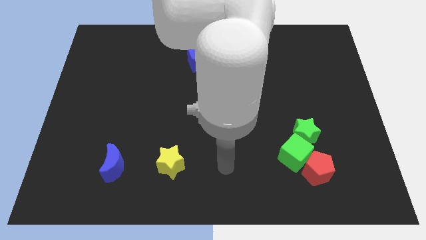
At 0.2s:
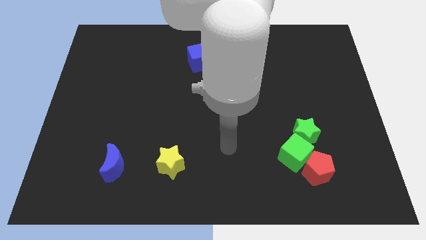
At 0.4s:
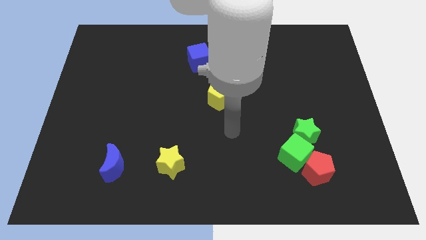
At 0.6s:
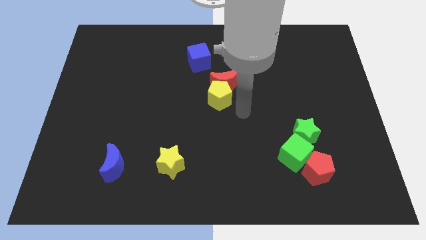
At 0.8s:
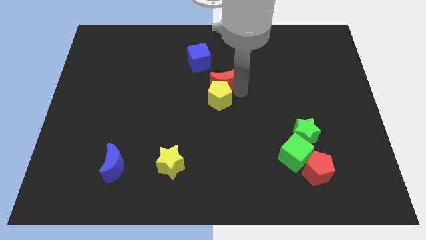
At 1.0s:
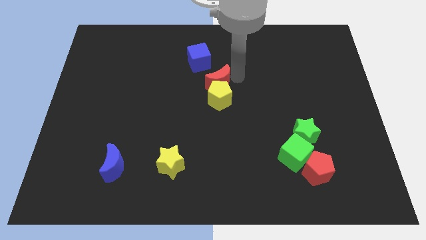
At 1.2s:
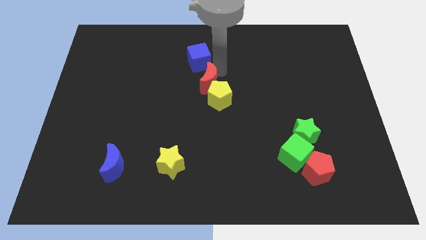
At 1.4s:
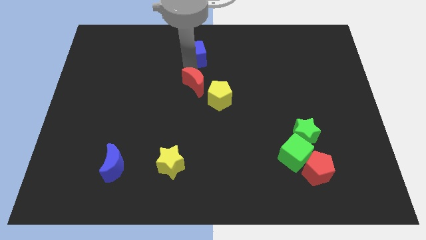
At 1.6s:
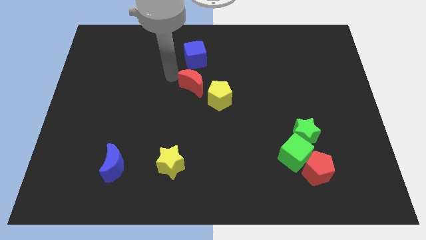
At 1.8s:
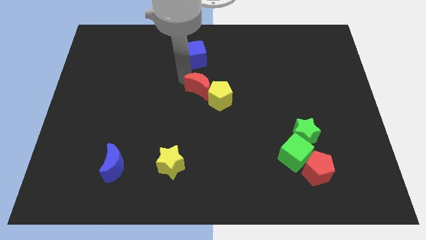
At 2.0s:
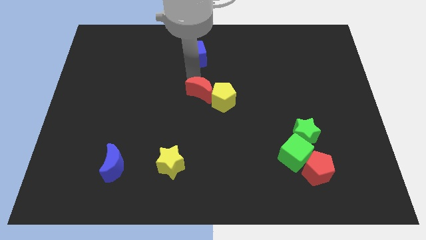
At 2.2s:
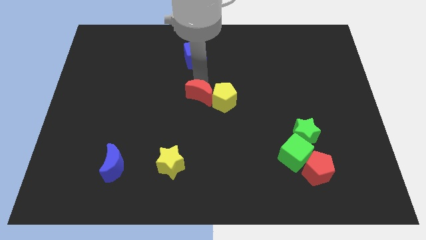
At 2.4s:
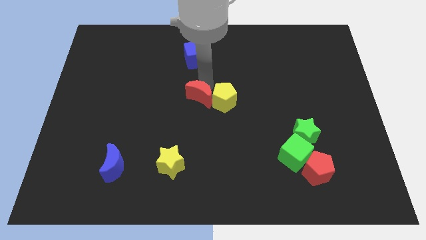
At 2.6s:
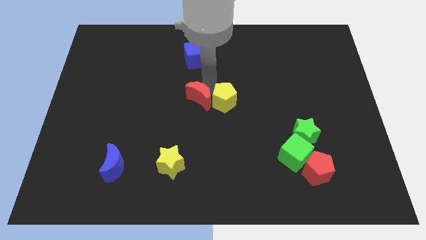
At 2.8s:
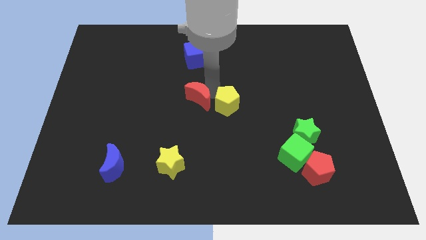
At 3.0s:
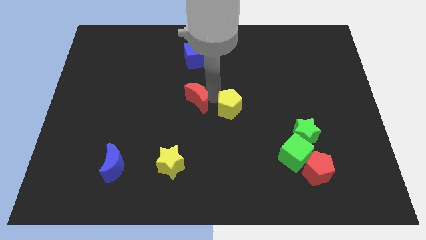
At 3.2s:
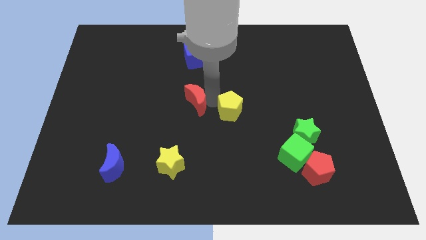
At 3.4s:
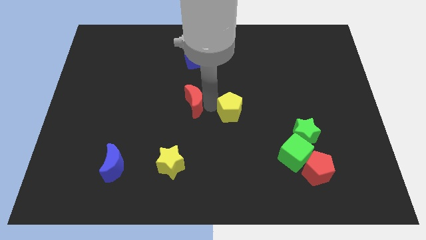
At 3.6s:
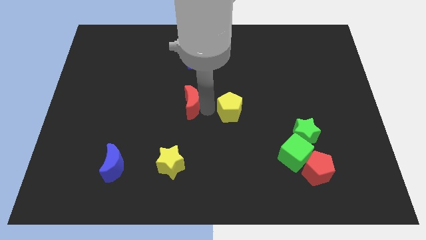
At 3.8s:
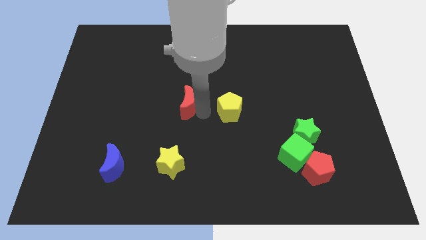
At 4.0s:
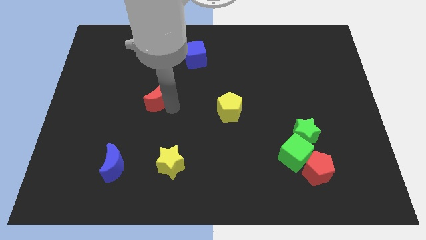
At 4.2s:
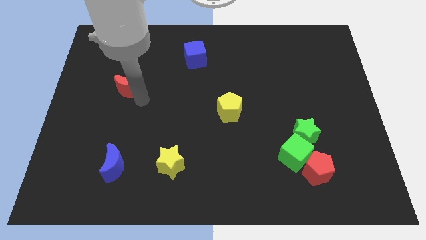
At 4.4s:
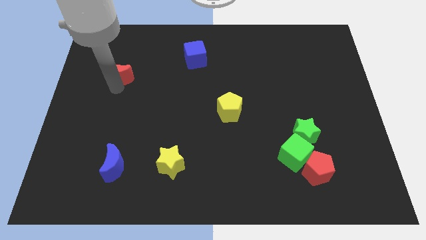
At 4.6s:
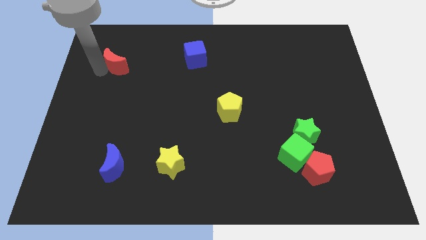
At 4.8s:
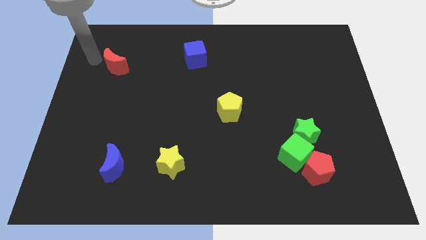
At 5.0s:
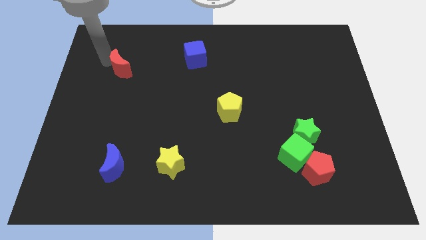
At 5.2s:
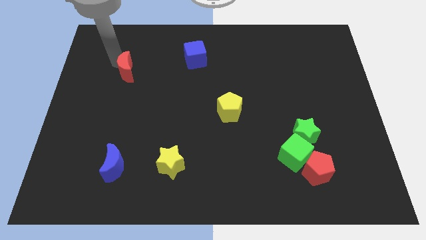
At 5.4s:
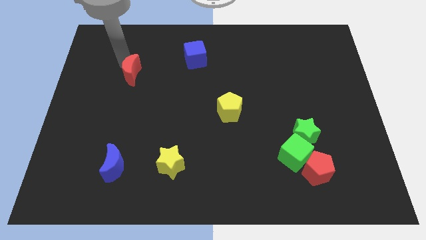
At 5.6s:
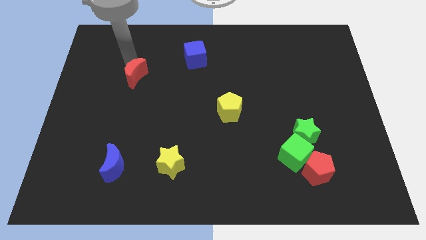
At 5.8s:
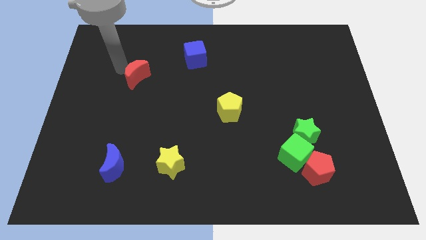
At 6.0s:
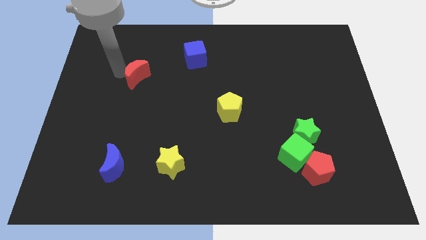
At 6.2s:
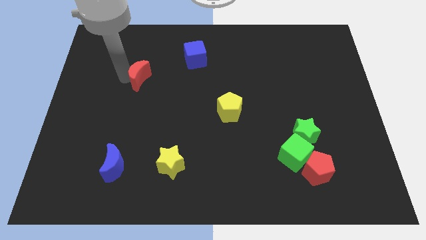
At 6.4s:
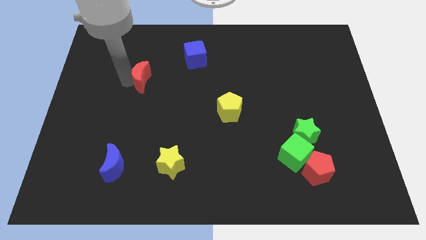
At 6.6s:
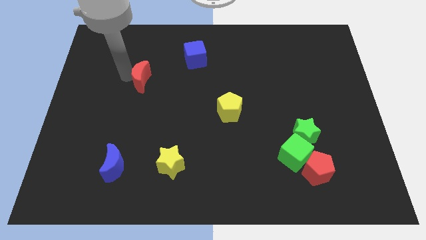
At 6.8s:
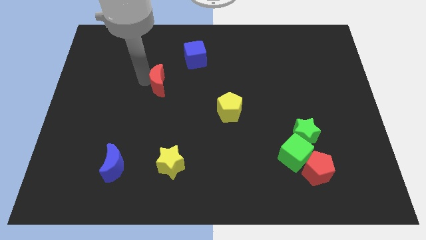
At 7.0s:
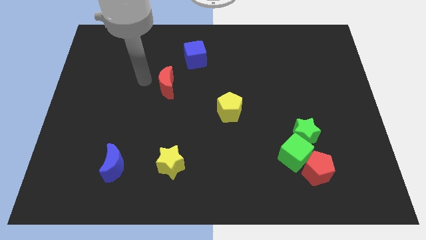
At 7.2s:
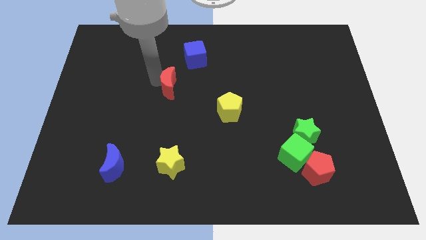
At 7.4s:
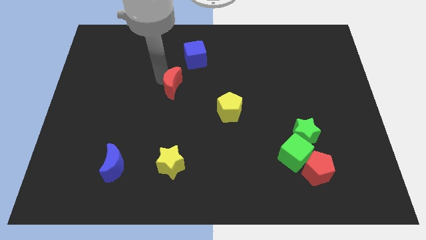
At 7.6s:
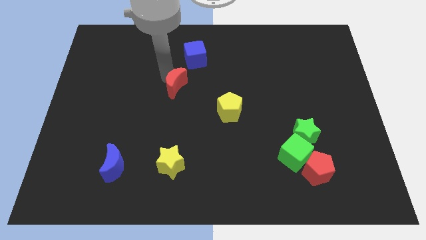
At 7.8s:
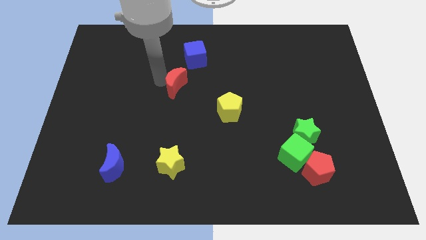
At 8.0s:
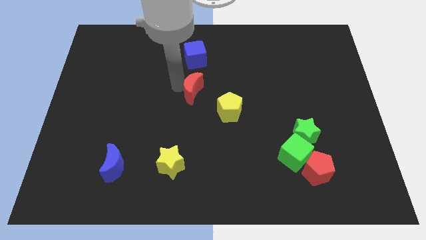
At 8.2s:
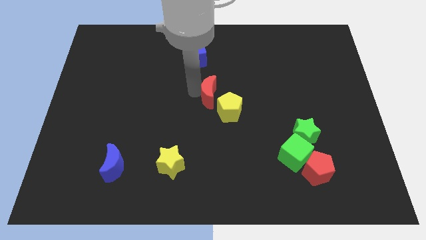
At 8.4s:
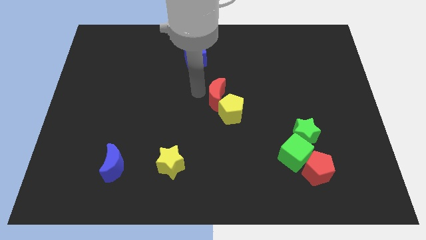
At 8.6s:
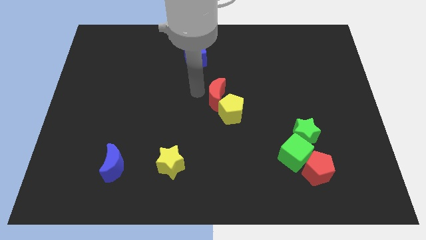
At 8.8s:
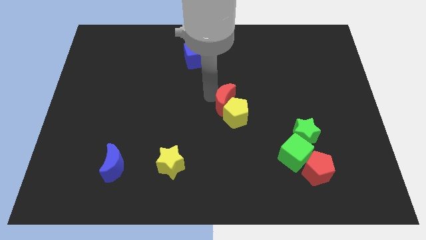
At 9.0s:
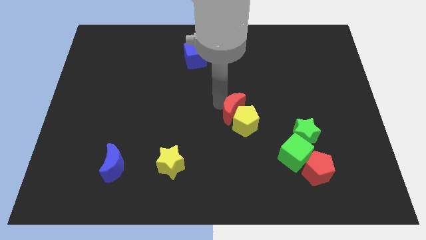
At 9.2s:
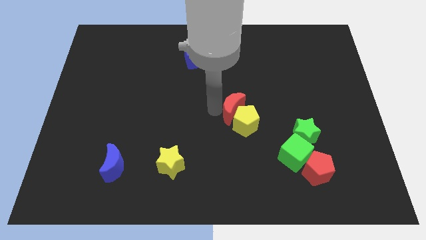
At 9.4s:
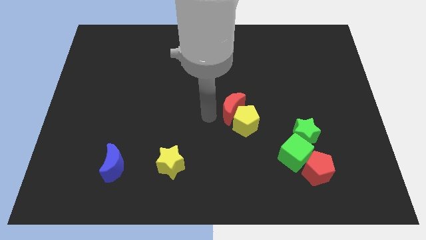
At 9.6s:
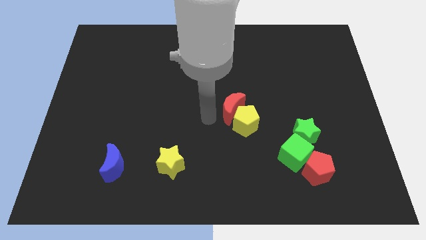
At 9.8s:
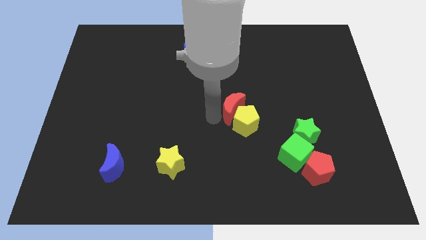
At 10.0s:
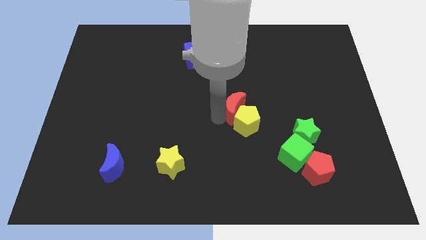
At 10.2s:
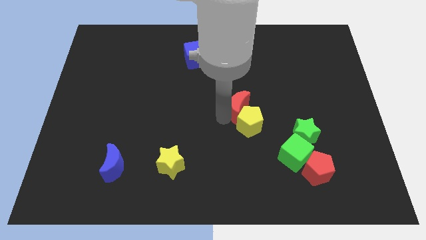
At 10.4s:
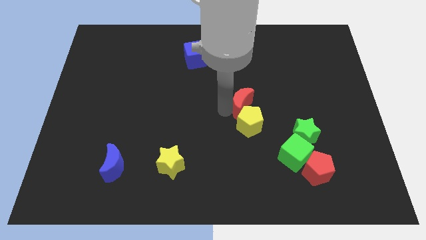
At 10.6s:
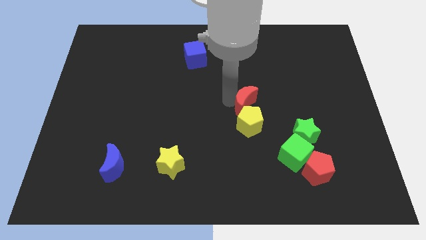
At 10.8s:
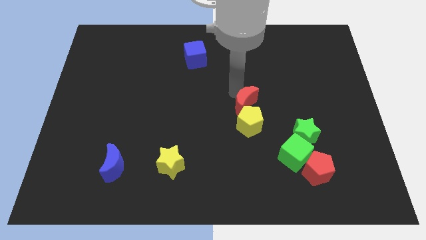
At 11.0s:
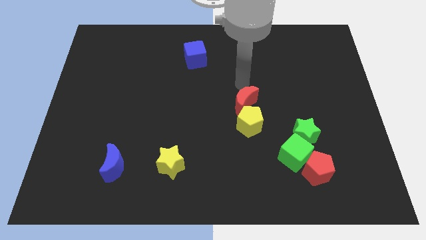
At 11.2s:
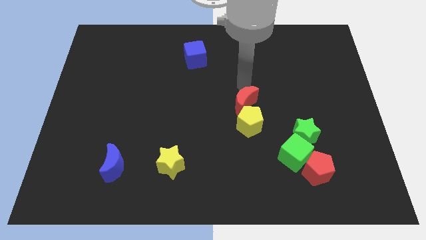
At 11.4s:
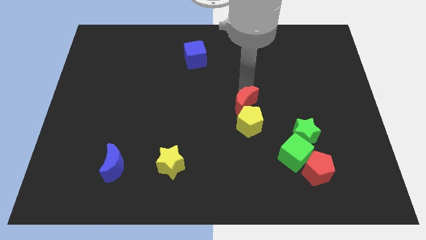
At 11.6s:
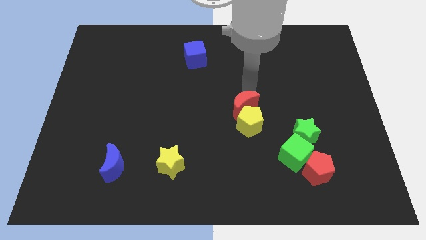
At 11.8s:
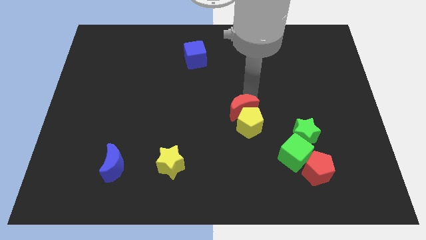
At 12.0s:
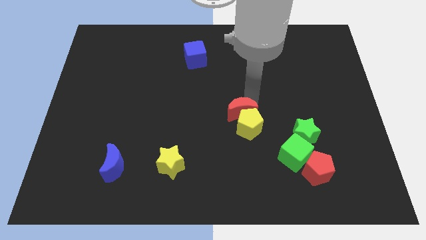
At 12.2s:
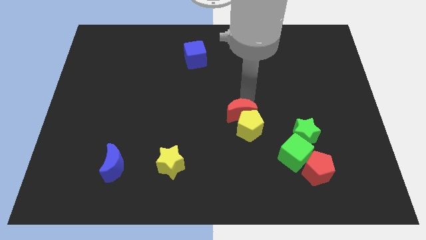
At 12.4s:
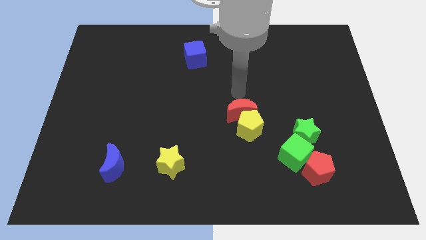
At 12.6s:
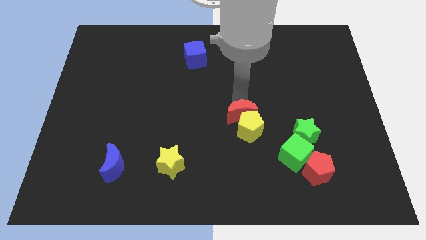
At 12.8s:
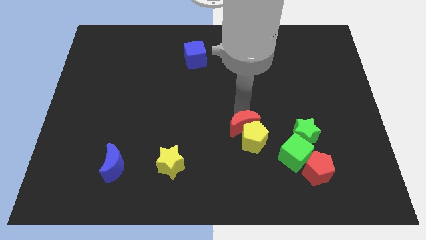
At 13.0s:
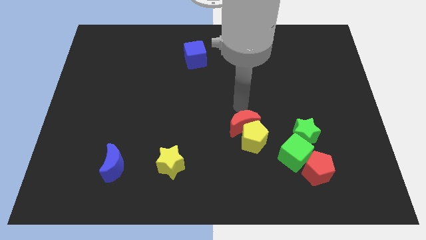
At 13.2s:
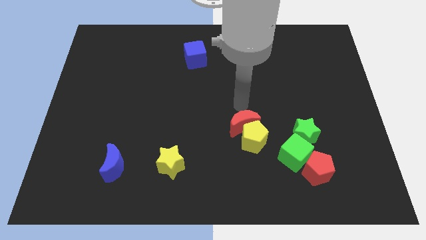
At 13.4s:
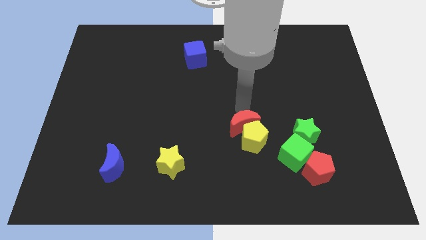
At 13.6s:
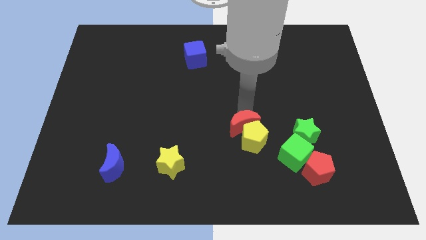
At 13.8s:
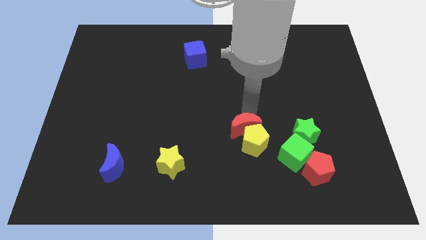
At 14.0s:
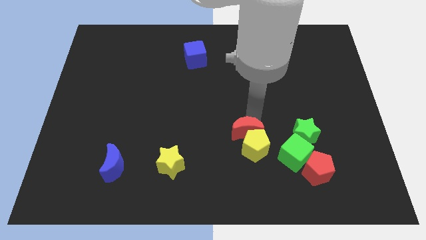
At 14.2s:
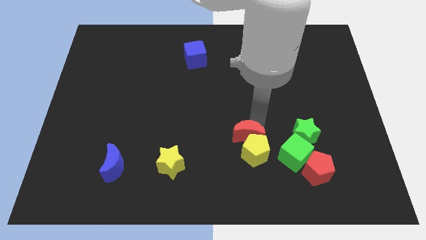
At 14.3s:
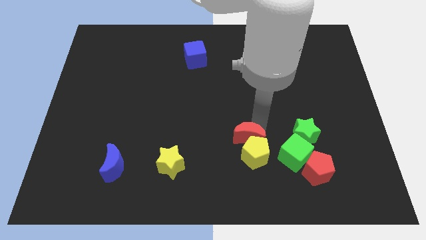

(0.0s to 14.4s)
slide the red moon just left of the green cube
